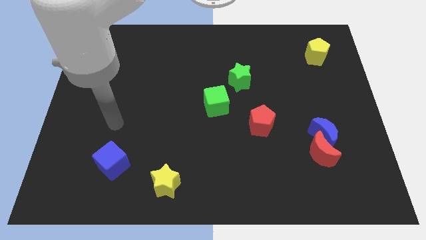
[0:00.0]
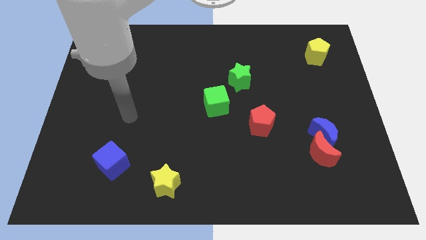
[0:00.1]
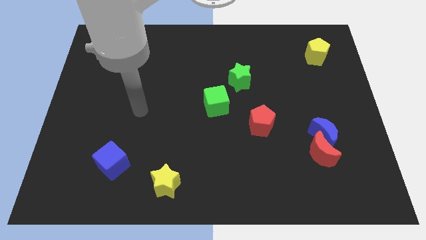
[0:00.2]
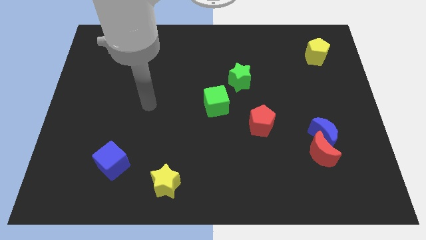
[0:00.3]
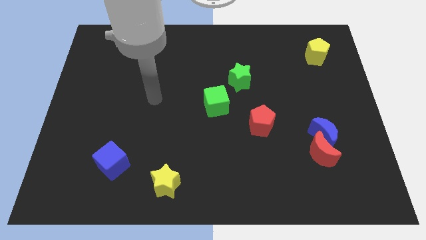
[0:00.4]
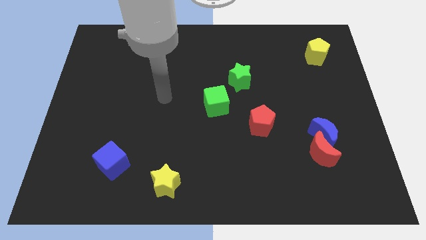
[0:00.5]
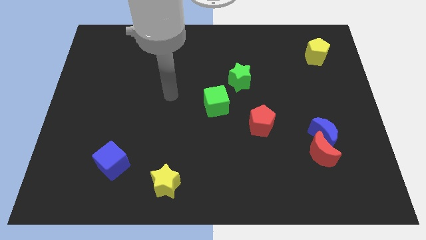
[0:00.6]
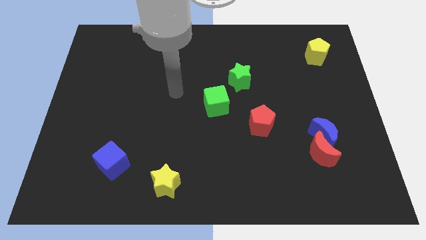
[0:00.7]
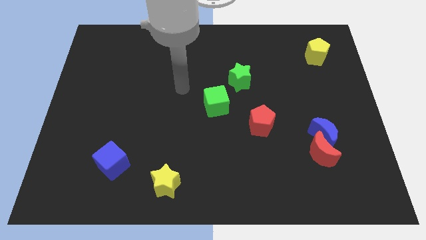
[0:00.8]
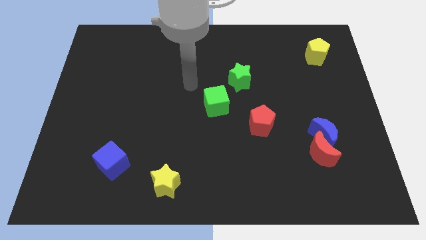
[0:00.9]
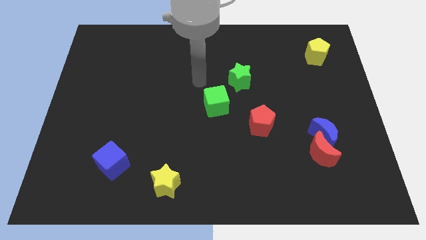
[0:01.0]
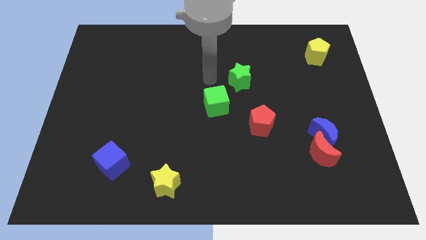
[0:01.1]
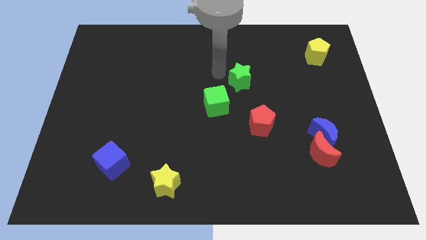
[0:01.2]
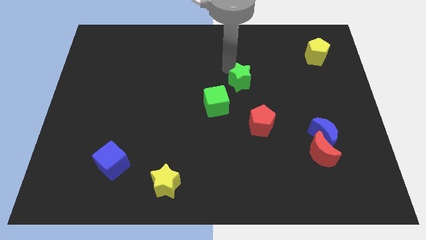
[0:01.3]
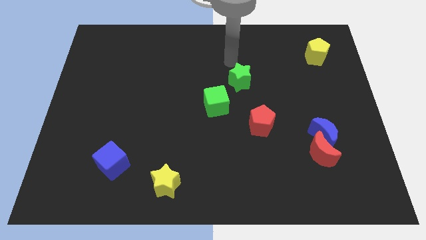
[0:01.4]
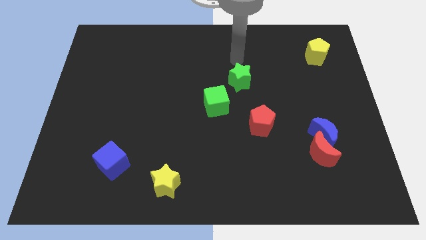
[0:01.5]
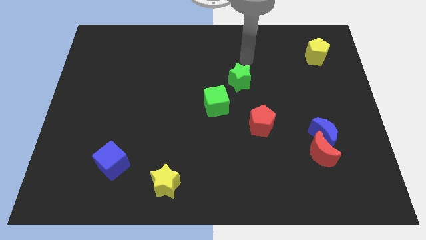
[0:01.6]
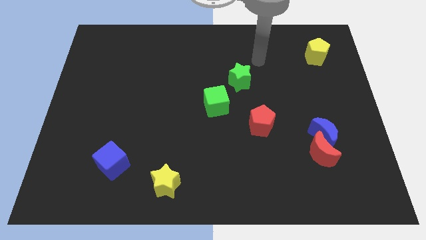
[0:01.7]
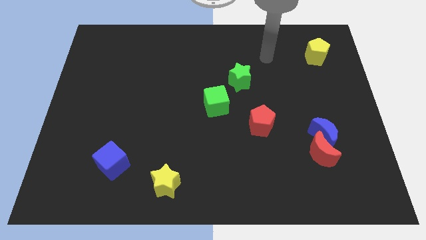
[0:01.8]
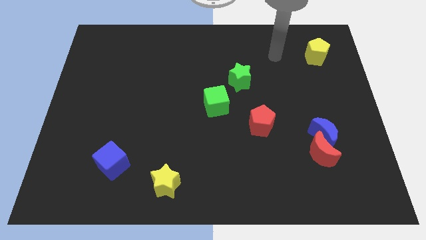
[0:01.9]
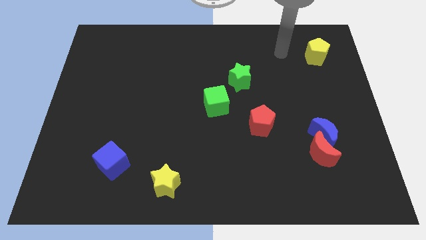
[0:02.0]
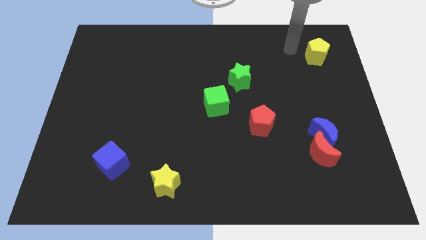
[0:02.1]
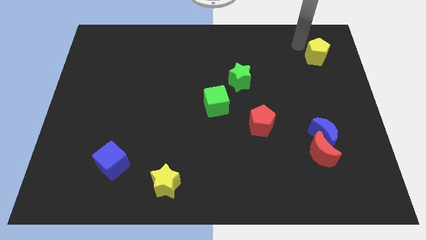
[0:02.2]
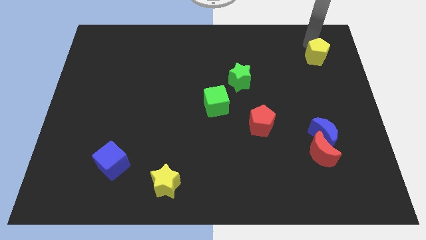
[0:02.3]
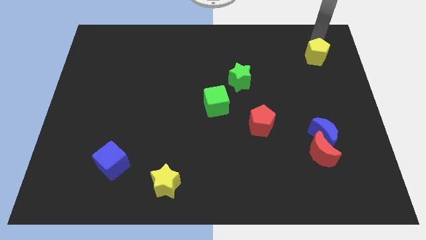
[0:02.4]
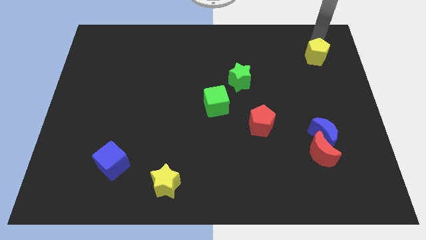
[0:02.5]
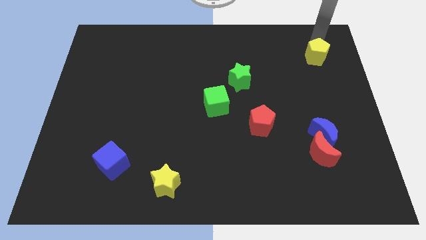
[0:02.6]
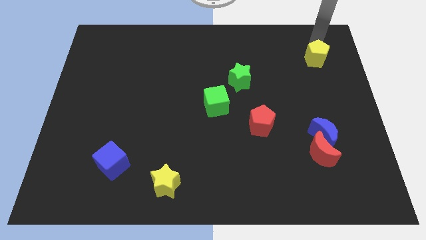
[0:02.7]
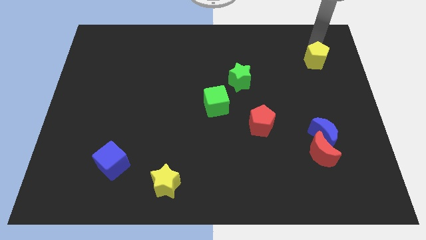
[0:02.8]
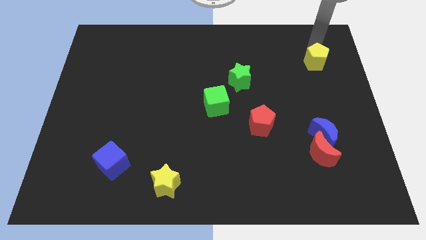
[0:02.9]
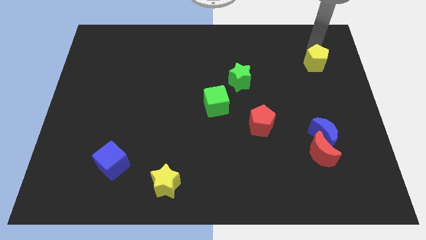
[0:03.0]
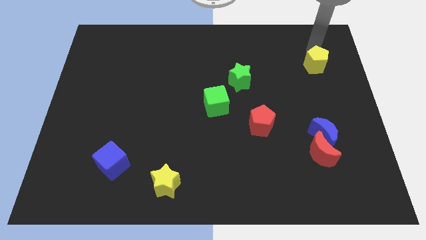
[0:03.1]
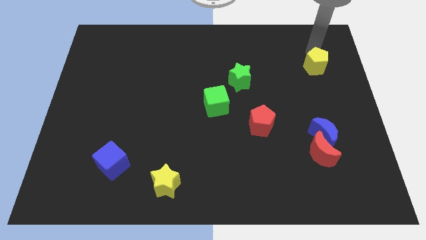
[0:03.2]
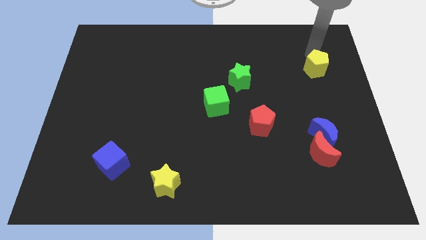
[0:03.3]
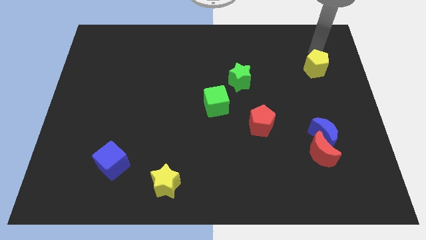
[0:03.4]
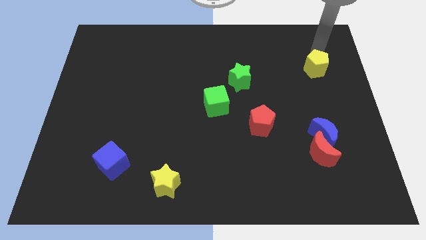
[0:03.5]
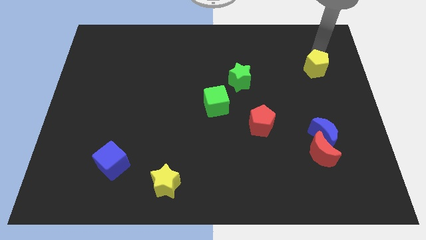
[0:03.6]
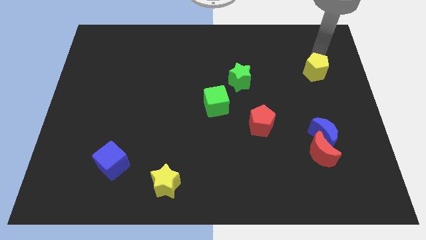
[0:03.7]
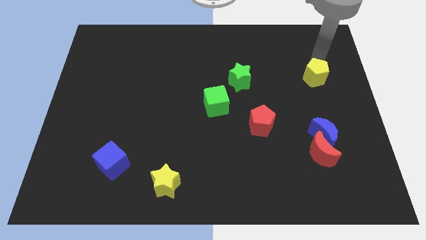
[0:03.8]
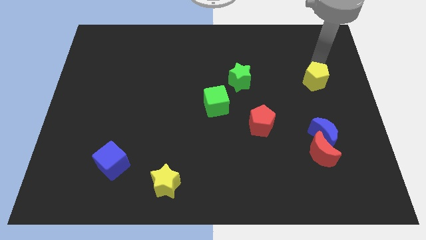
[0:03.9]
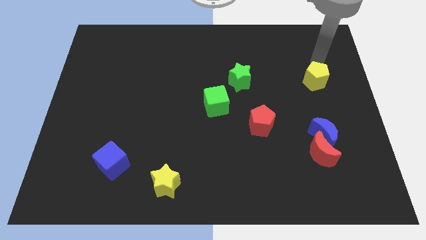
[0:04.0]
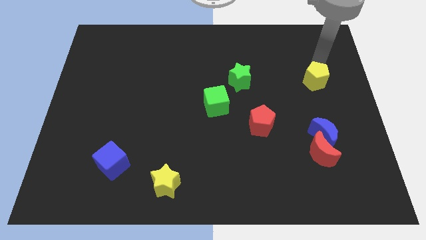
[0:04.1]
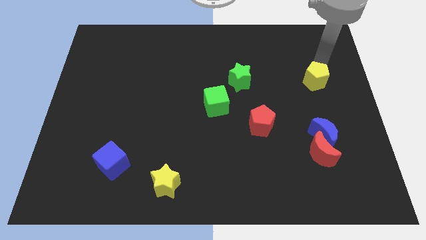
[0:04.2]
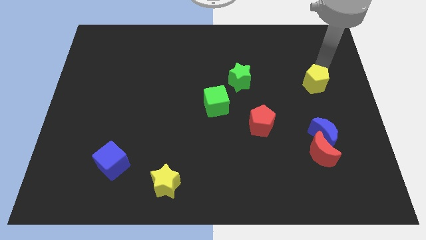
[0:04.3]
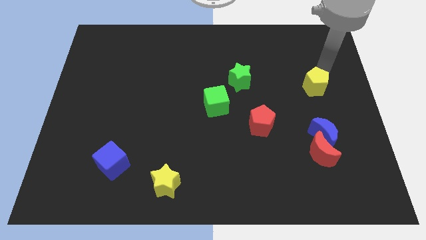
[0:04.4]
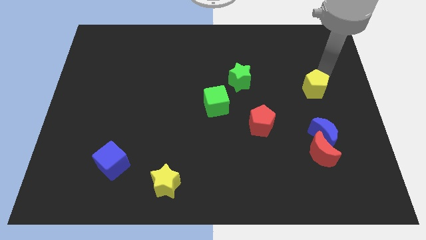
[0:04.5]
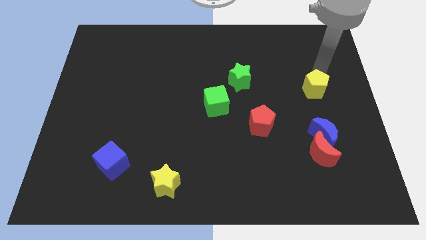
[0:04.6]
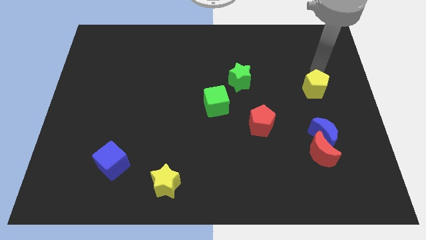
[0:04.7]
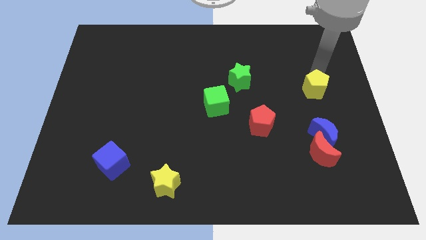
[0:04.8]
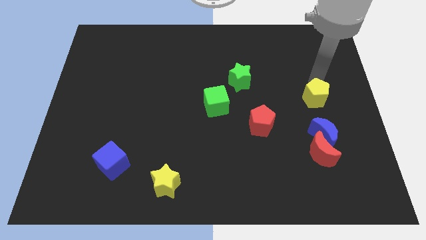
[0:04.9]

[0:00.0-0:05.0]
move the yellow pentagon to the top side of the red moon

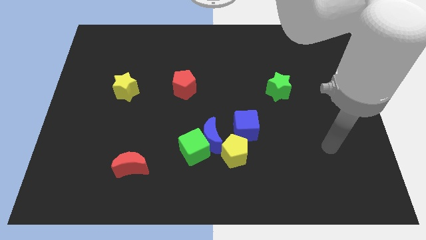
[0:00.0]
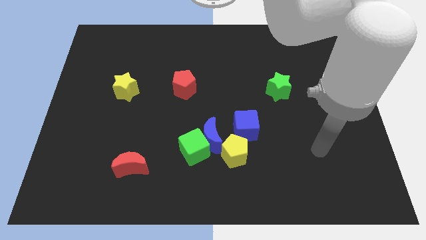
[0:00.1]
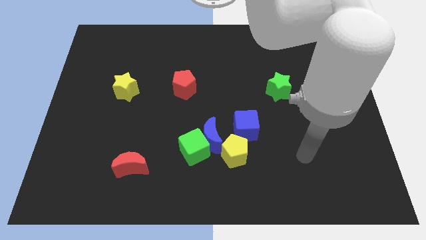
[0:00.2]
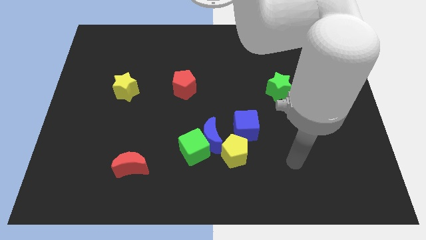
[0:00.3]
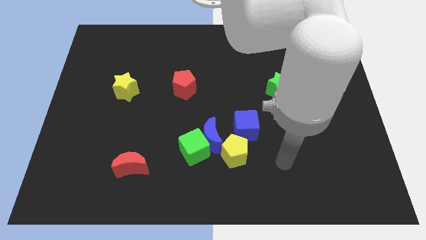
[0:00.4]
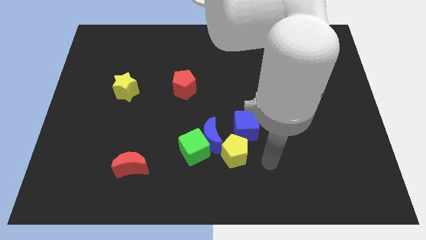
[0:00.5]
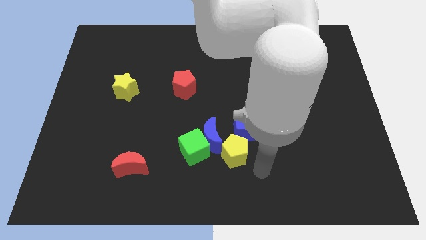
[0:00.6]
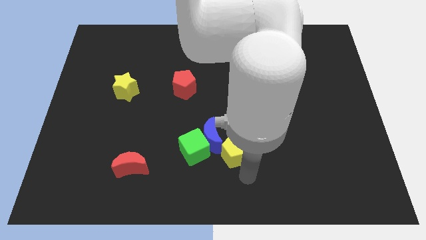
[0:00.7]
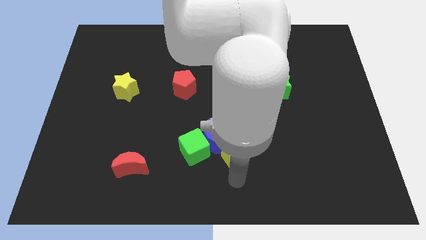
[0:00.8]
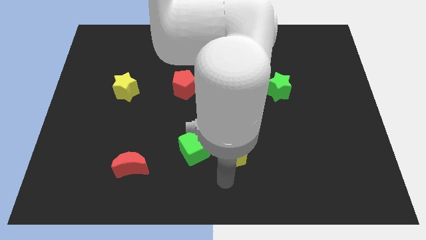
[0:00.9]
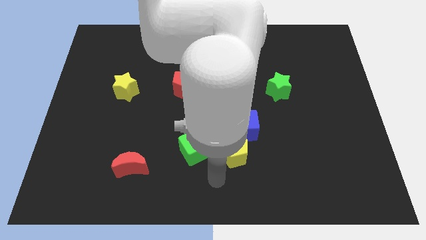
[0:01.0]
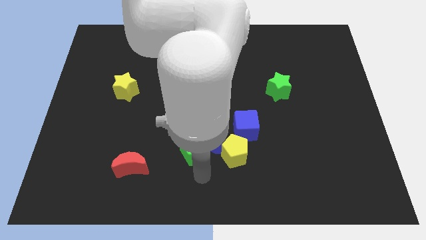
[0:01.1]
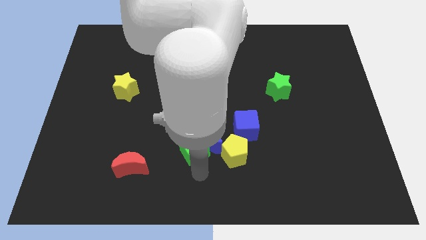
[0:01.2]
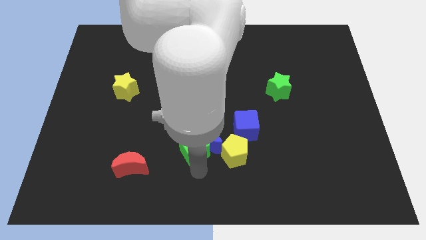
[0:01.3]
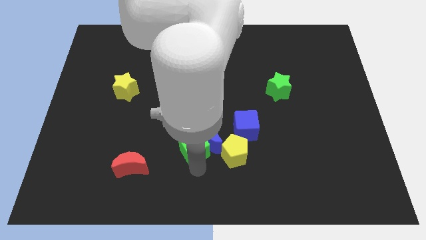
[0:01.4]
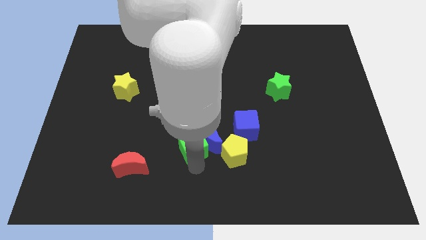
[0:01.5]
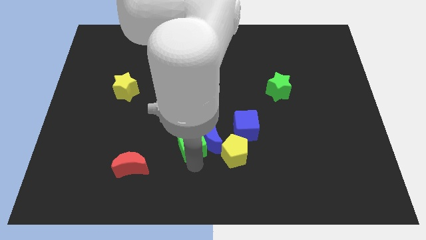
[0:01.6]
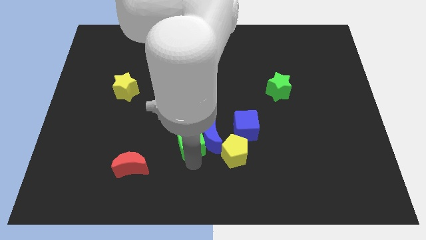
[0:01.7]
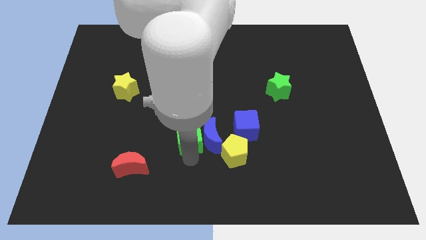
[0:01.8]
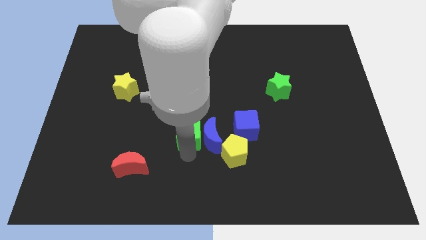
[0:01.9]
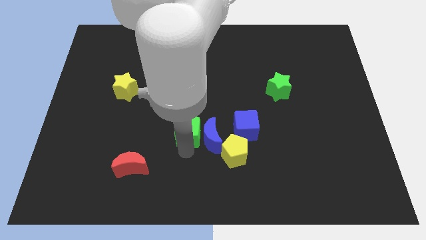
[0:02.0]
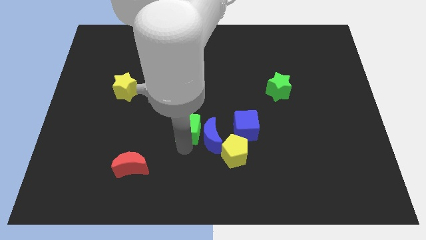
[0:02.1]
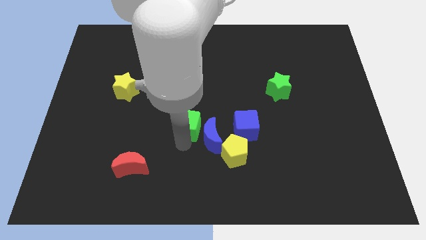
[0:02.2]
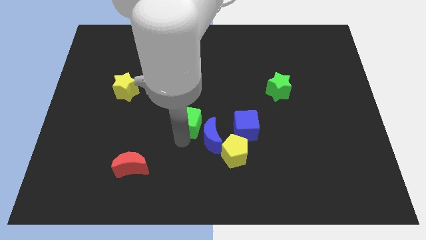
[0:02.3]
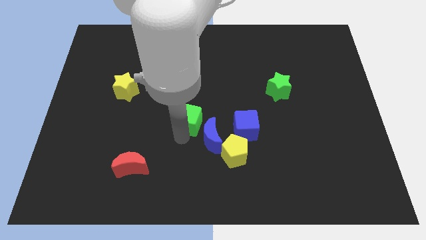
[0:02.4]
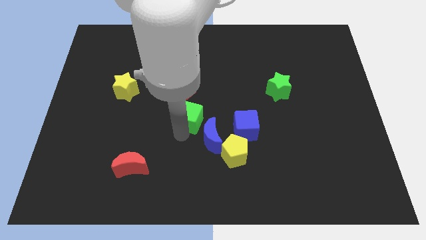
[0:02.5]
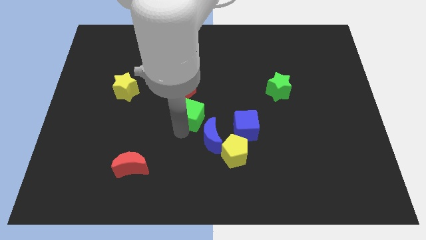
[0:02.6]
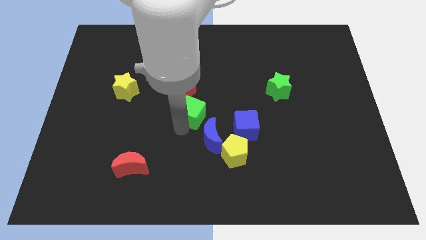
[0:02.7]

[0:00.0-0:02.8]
put the green cube diagonally down and to the right of the red pentagon
